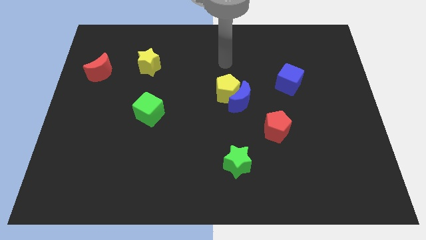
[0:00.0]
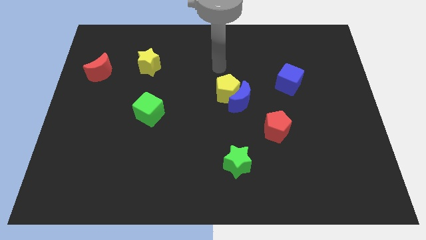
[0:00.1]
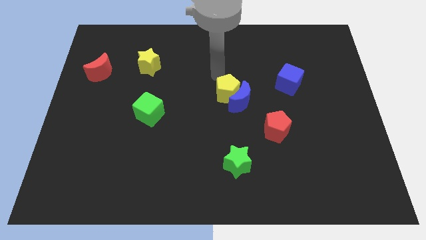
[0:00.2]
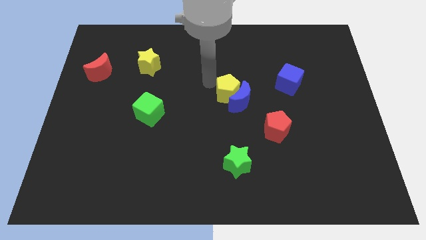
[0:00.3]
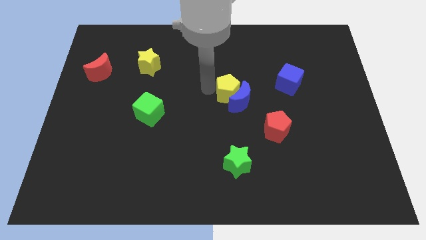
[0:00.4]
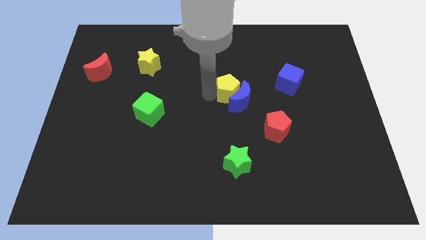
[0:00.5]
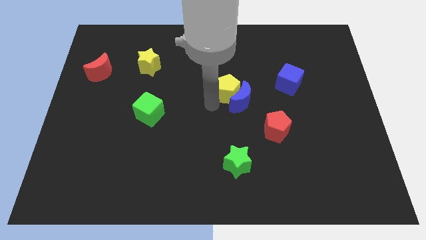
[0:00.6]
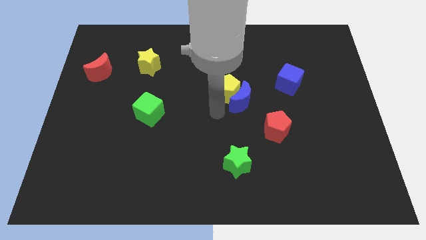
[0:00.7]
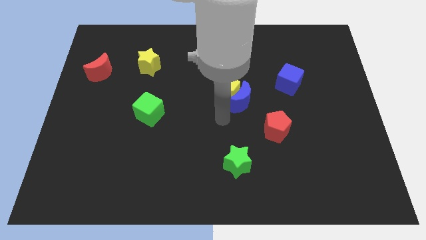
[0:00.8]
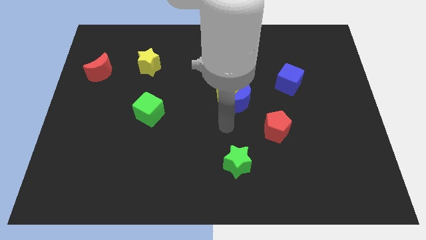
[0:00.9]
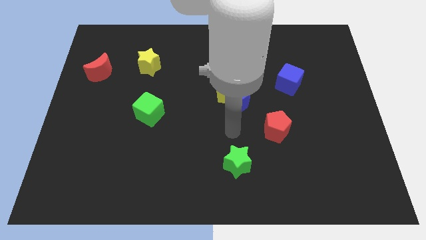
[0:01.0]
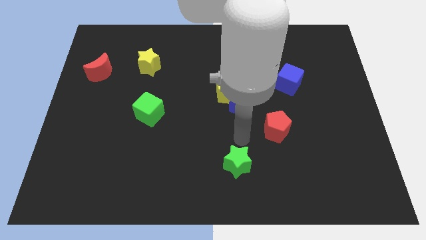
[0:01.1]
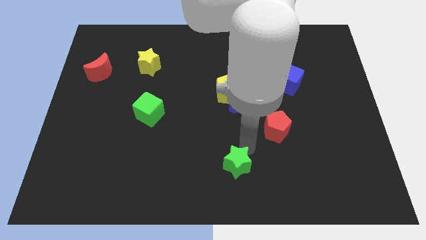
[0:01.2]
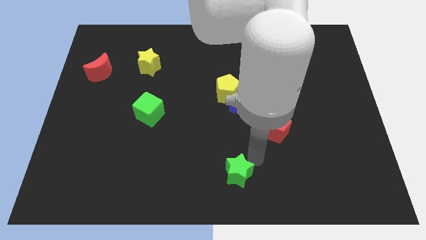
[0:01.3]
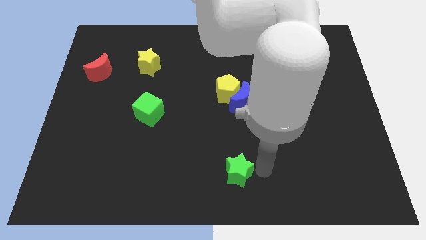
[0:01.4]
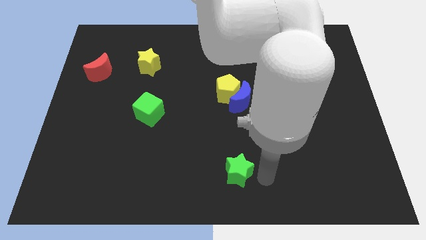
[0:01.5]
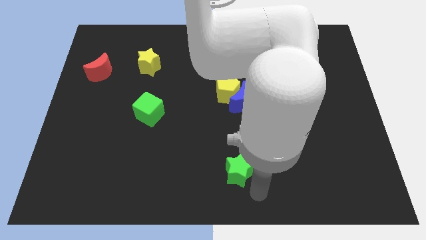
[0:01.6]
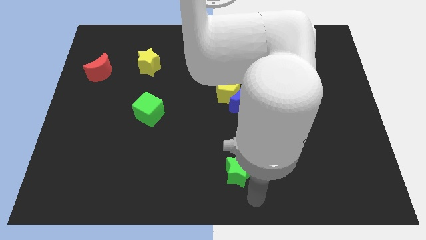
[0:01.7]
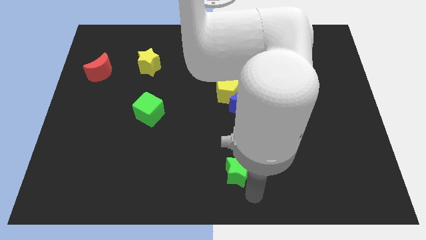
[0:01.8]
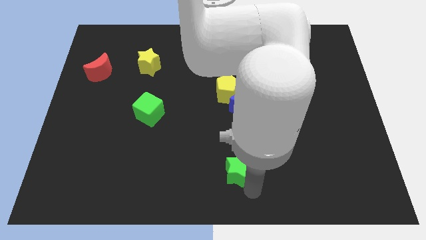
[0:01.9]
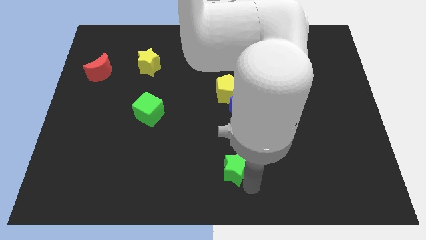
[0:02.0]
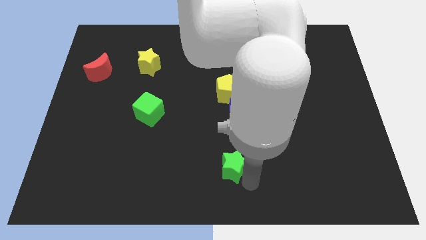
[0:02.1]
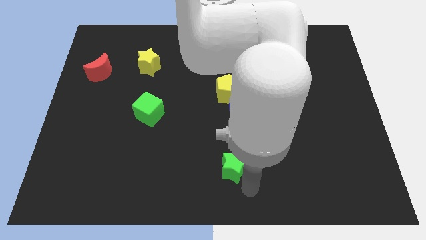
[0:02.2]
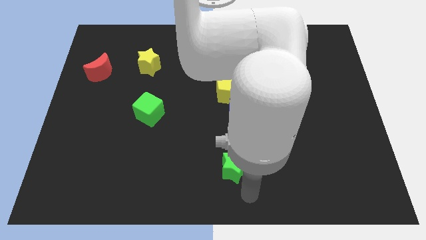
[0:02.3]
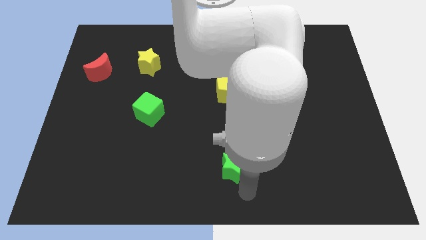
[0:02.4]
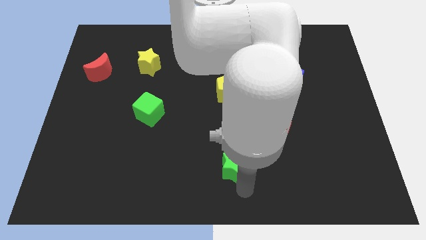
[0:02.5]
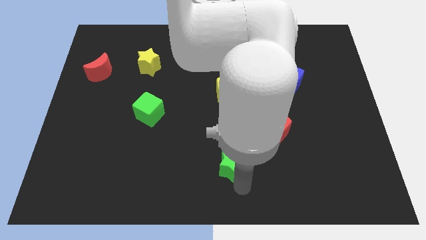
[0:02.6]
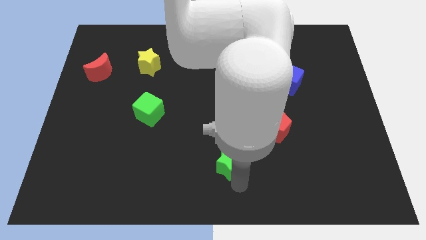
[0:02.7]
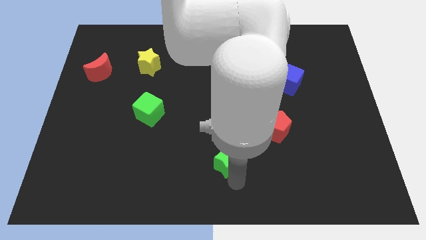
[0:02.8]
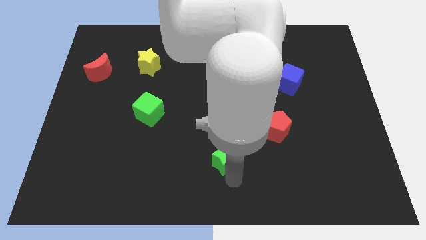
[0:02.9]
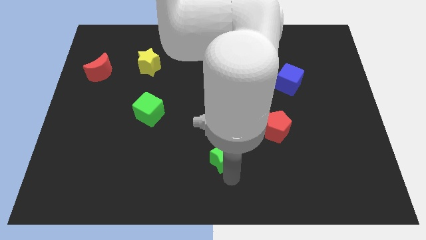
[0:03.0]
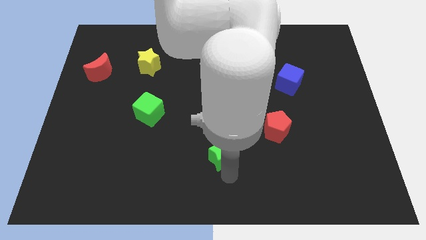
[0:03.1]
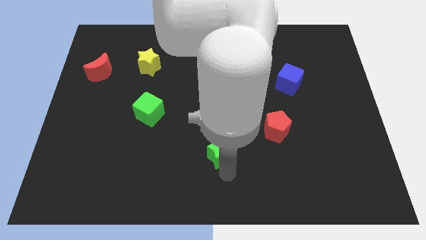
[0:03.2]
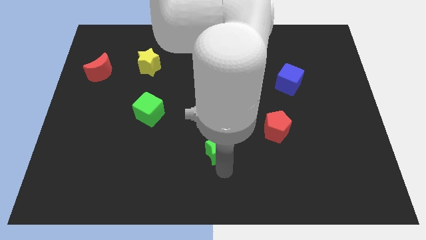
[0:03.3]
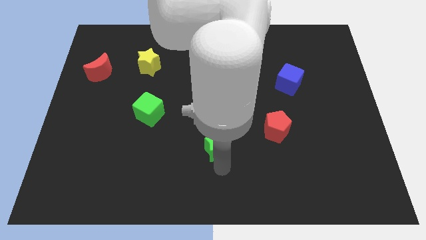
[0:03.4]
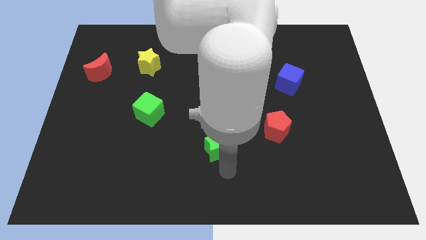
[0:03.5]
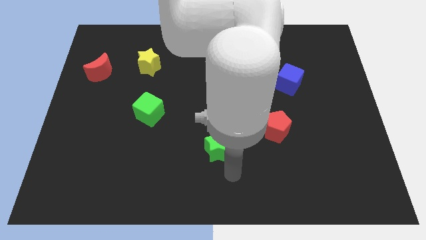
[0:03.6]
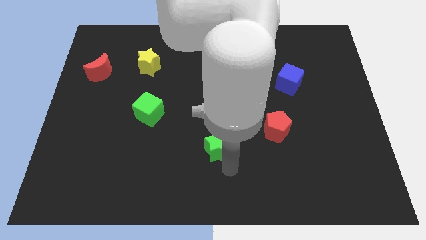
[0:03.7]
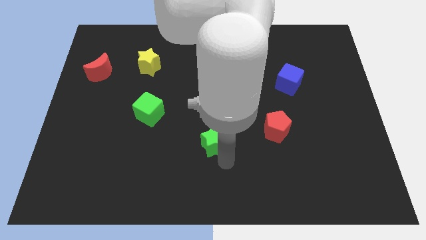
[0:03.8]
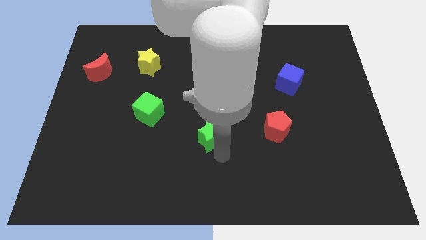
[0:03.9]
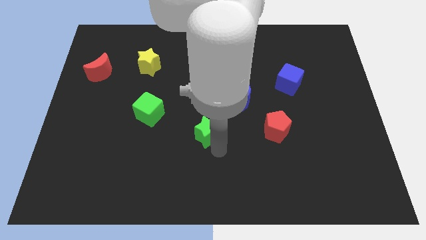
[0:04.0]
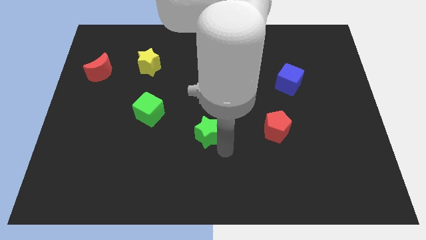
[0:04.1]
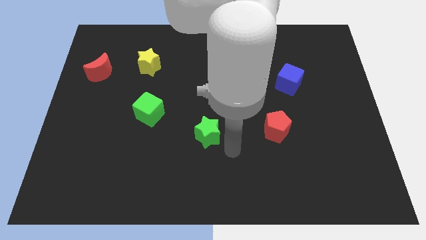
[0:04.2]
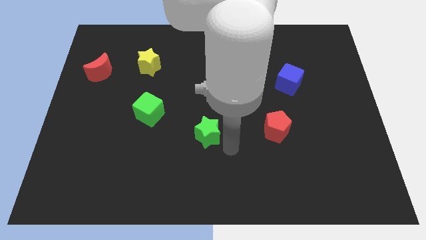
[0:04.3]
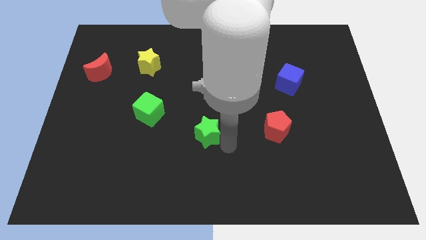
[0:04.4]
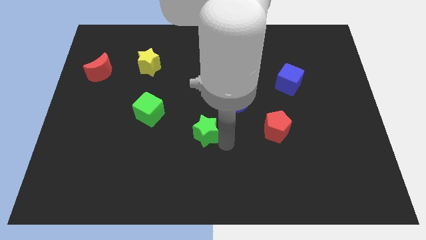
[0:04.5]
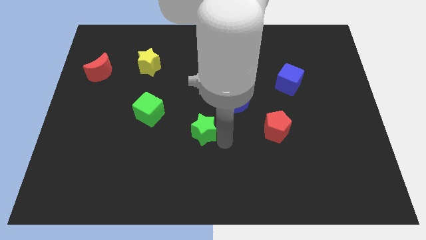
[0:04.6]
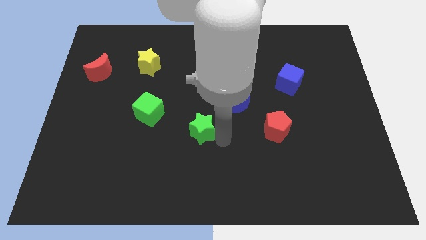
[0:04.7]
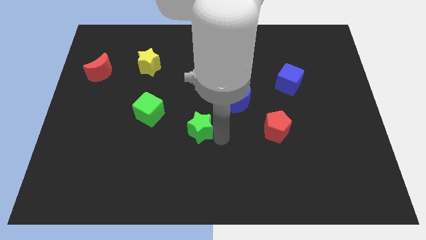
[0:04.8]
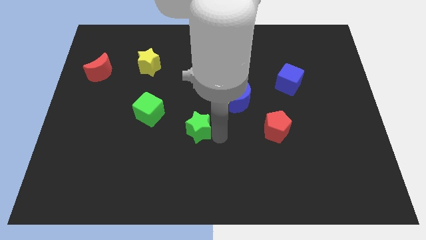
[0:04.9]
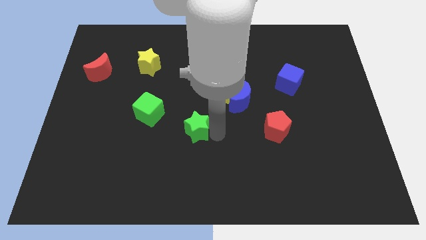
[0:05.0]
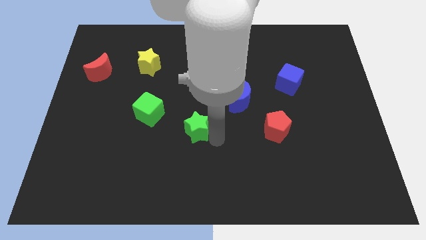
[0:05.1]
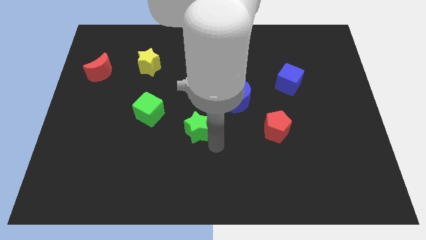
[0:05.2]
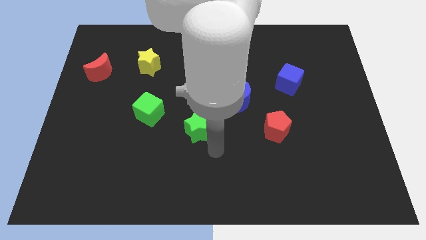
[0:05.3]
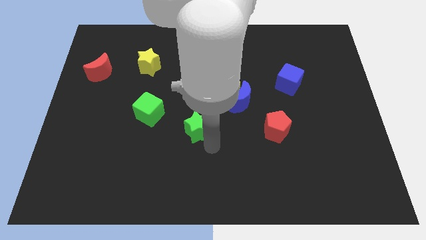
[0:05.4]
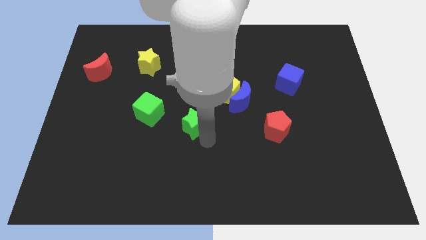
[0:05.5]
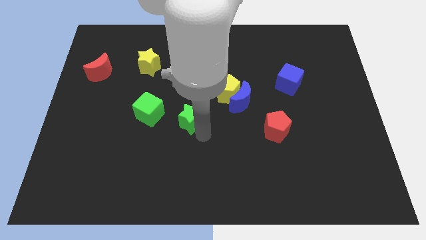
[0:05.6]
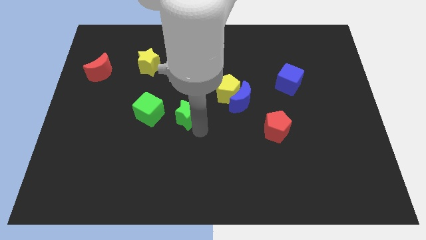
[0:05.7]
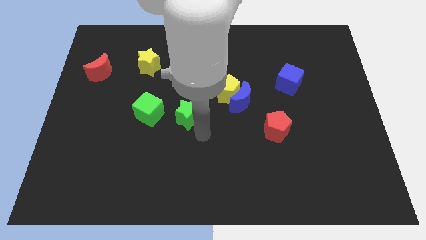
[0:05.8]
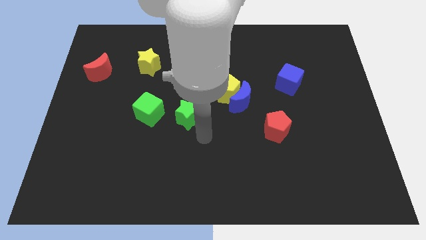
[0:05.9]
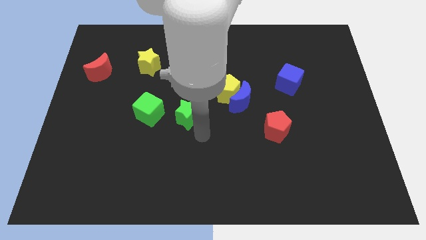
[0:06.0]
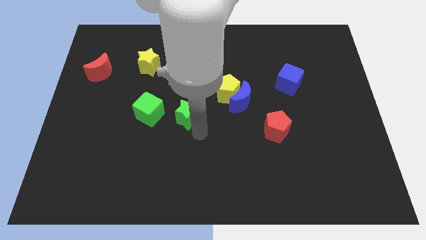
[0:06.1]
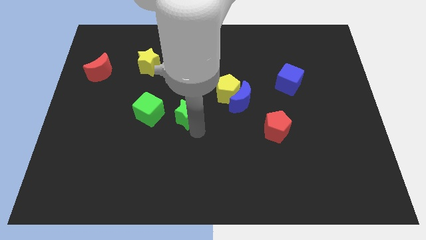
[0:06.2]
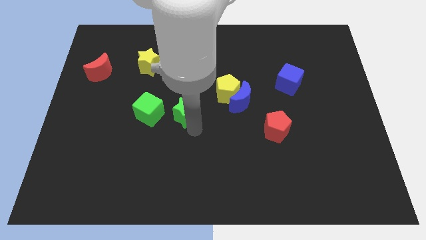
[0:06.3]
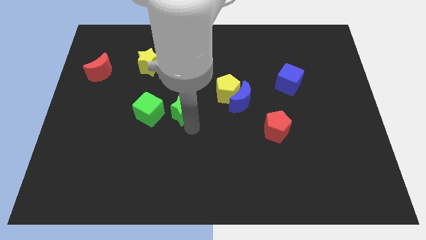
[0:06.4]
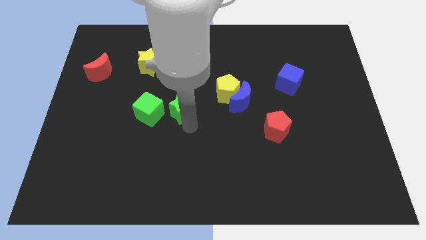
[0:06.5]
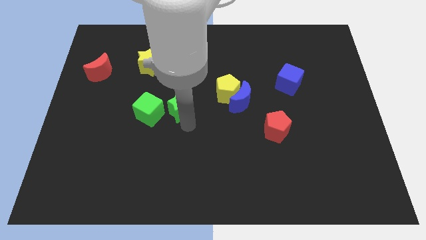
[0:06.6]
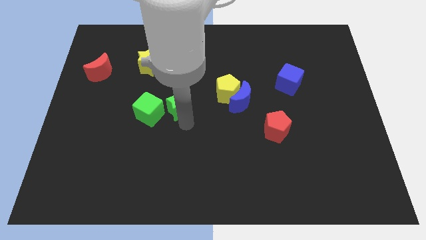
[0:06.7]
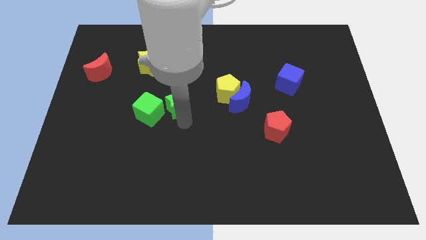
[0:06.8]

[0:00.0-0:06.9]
push the green star upwards and left diagonally

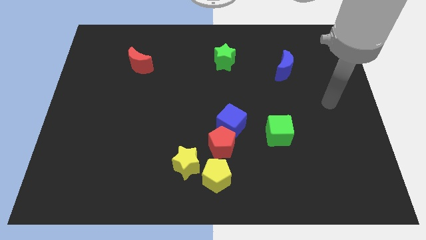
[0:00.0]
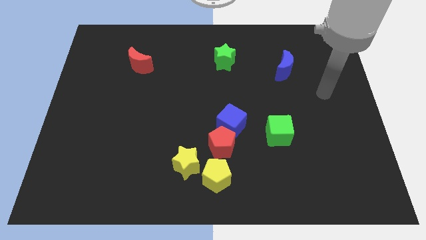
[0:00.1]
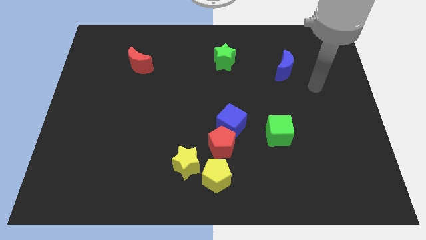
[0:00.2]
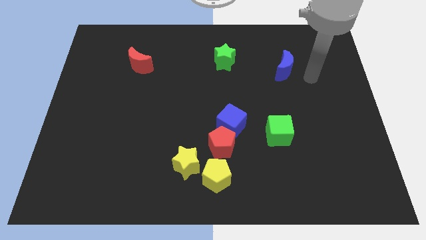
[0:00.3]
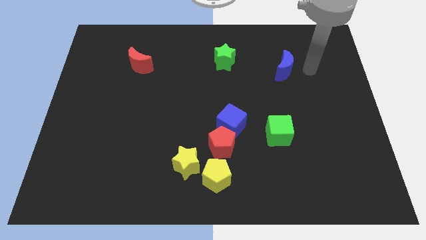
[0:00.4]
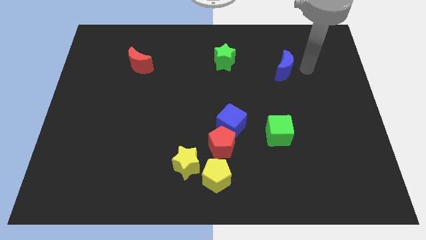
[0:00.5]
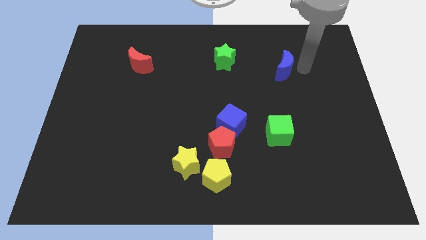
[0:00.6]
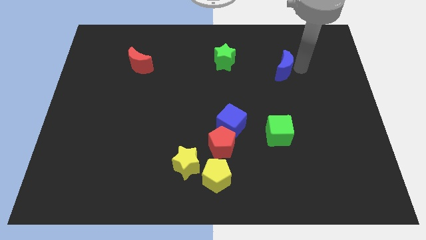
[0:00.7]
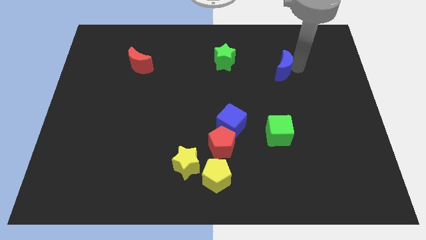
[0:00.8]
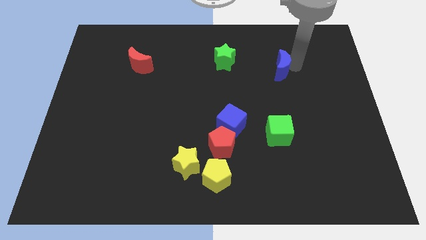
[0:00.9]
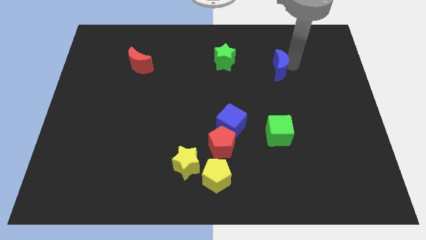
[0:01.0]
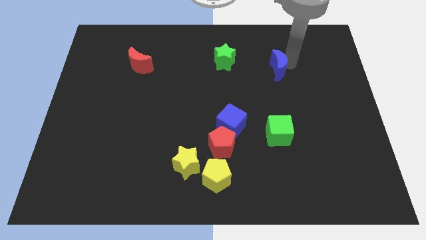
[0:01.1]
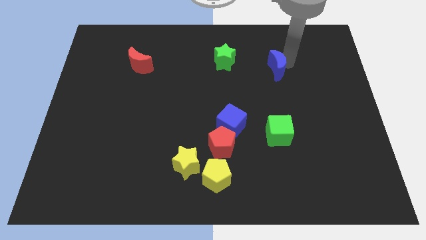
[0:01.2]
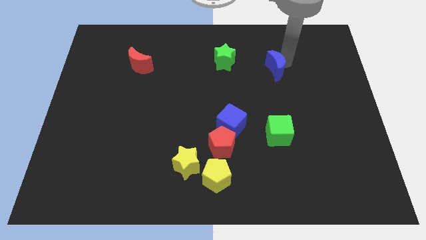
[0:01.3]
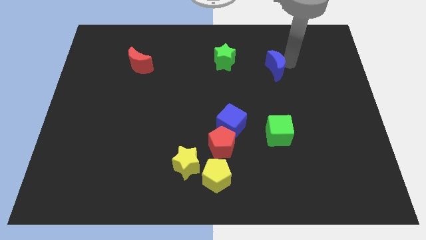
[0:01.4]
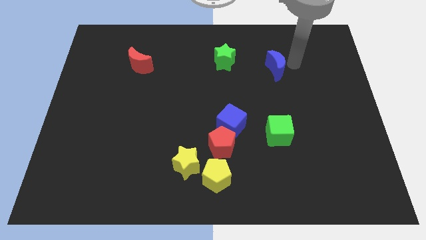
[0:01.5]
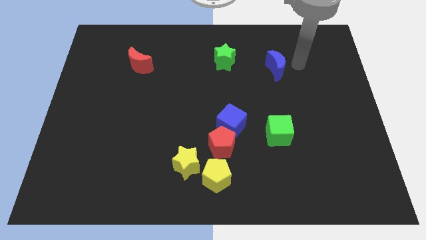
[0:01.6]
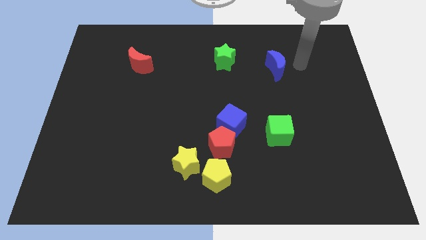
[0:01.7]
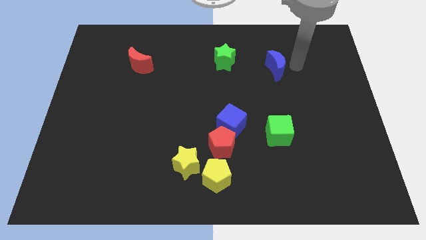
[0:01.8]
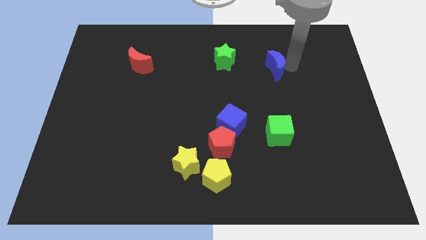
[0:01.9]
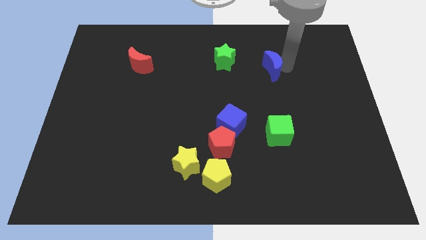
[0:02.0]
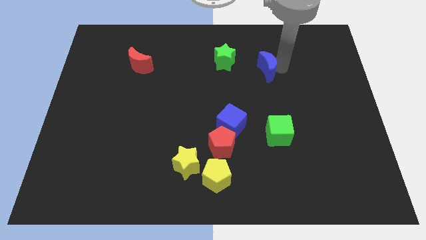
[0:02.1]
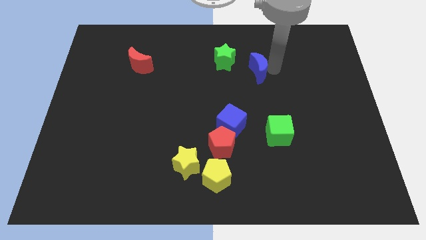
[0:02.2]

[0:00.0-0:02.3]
slide the blue moon to the left slightly
